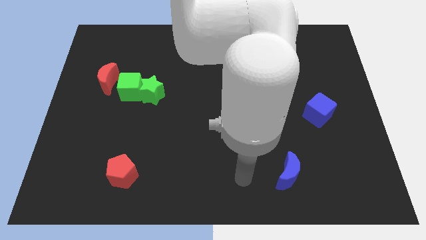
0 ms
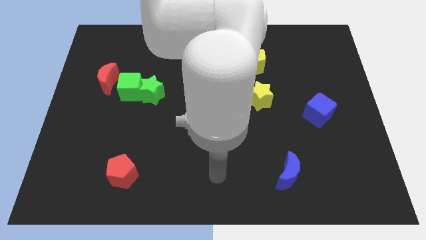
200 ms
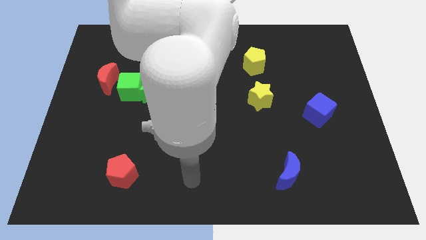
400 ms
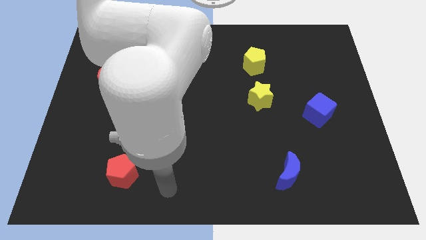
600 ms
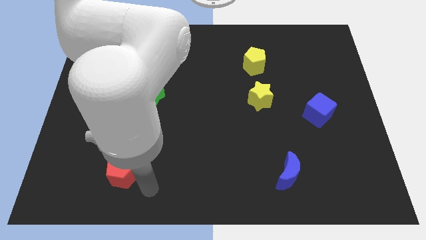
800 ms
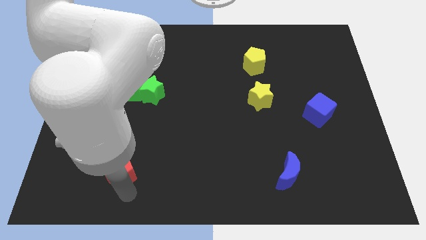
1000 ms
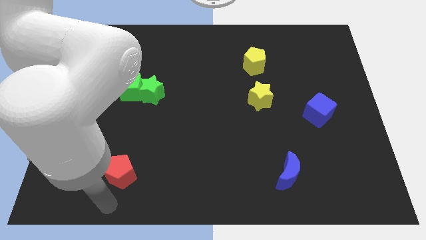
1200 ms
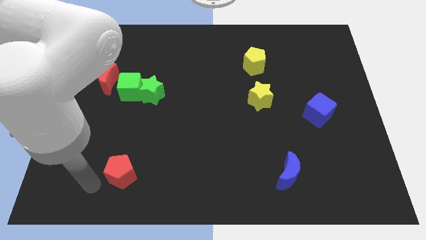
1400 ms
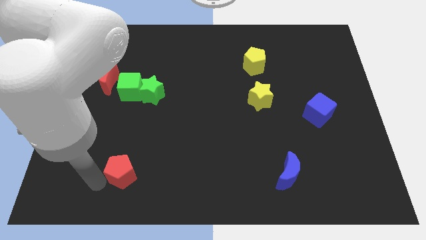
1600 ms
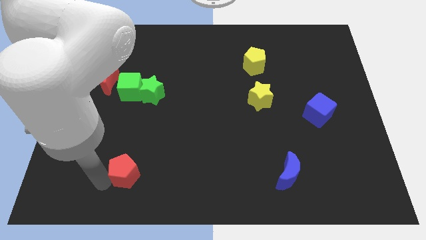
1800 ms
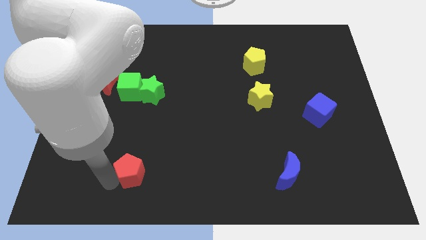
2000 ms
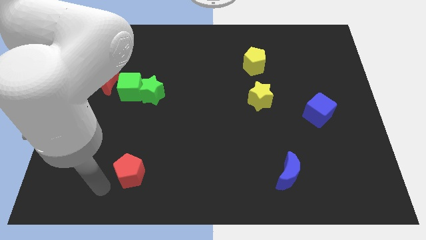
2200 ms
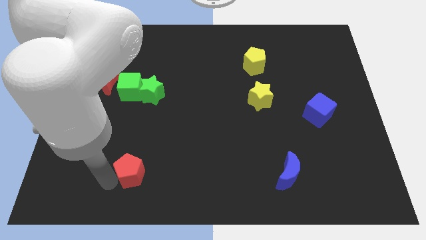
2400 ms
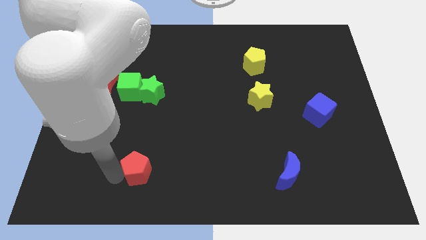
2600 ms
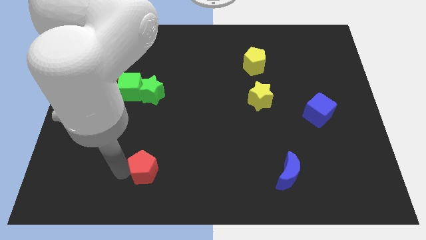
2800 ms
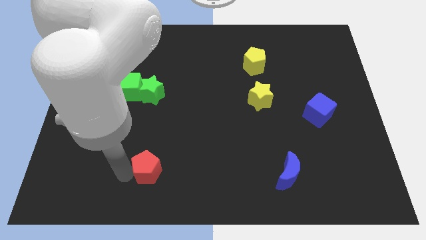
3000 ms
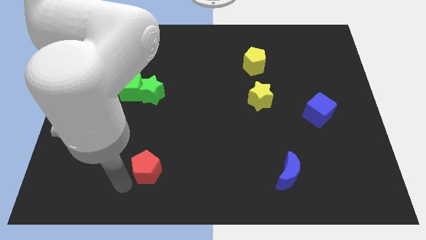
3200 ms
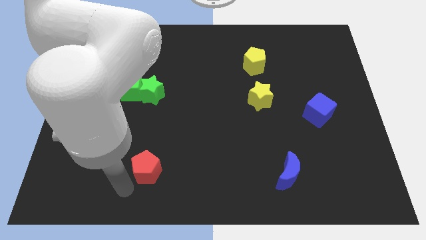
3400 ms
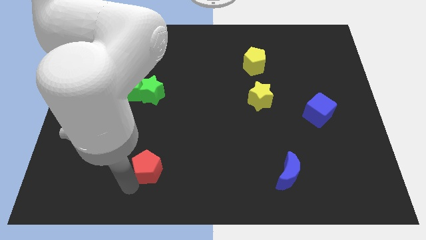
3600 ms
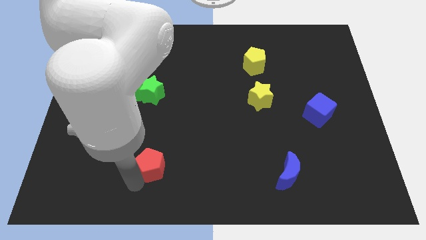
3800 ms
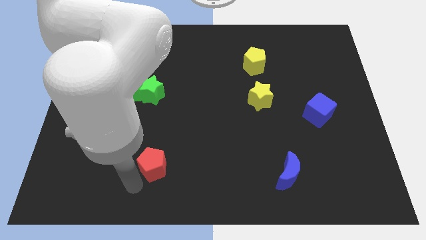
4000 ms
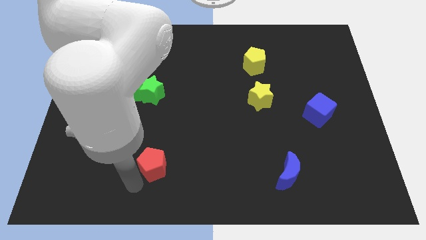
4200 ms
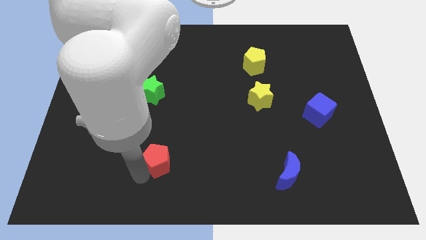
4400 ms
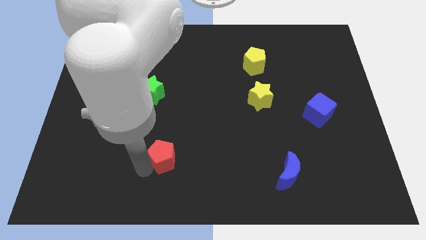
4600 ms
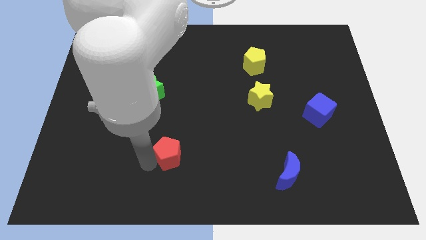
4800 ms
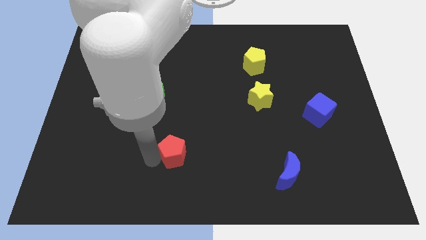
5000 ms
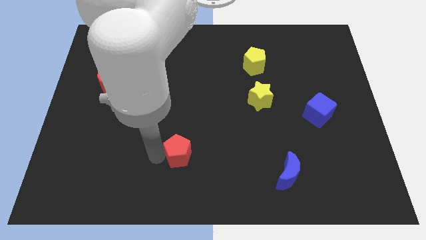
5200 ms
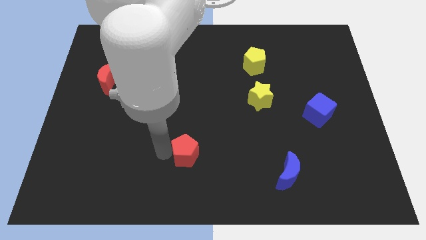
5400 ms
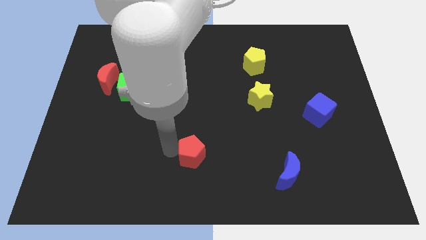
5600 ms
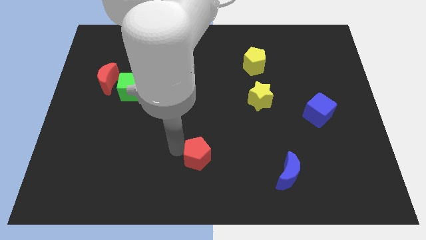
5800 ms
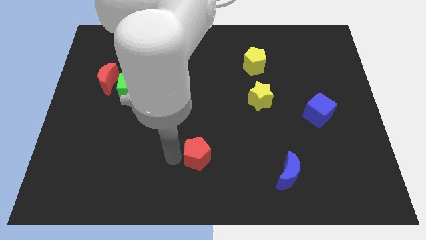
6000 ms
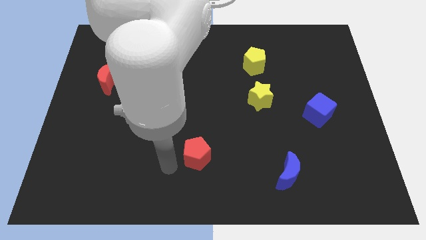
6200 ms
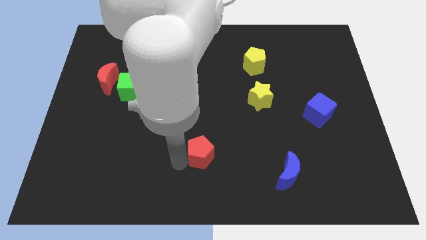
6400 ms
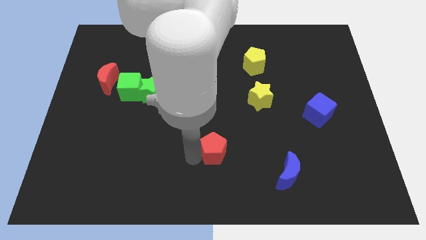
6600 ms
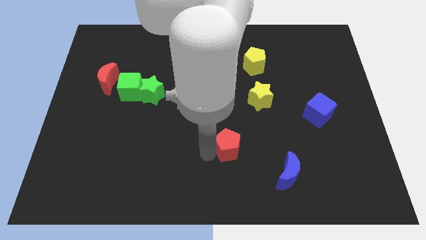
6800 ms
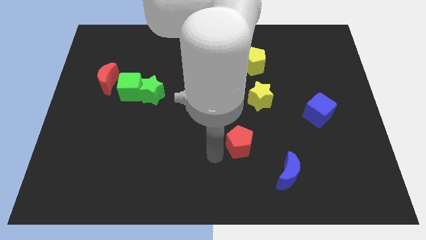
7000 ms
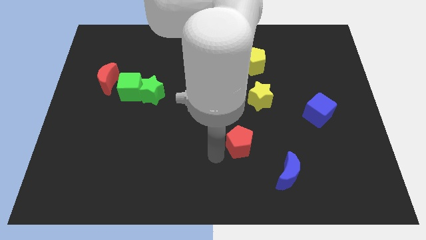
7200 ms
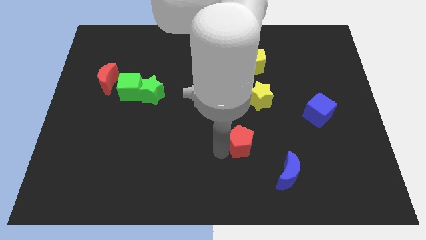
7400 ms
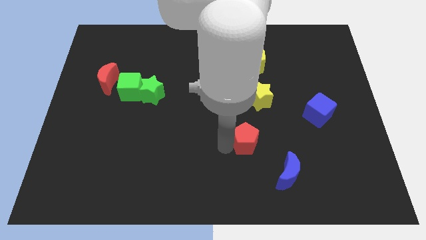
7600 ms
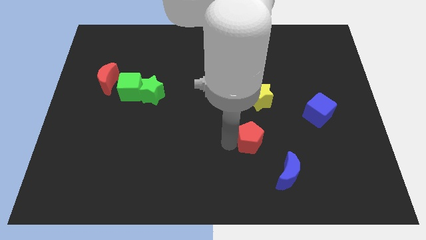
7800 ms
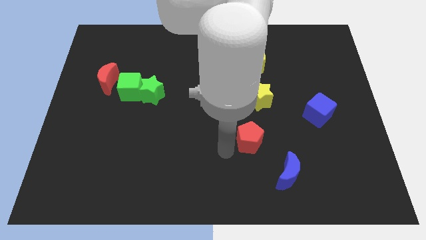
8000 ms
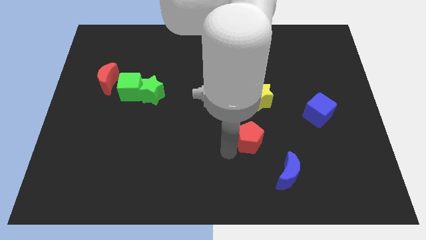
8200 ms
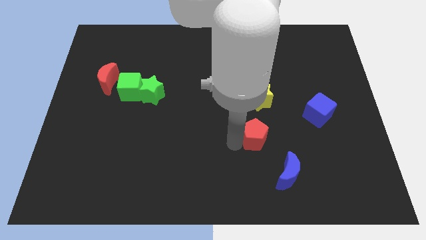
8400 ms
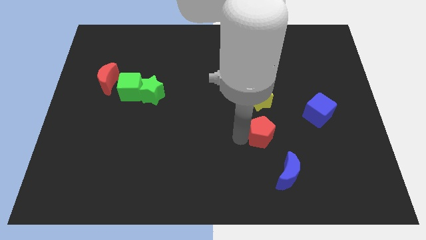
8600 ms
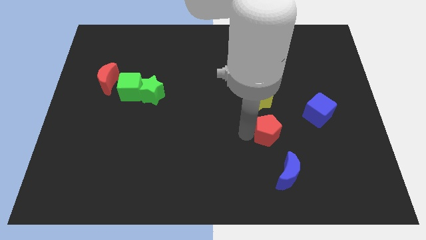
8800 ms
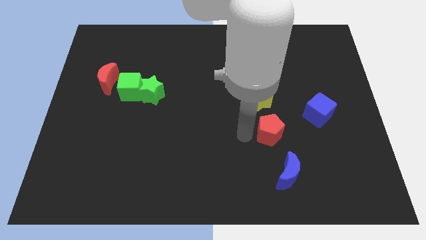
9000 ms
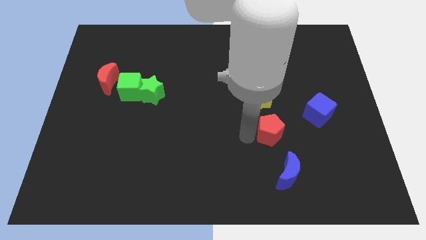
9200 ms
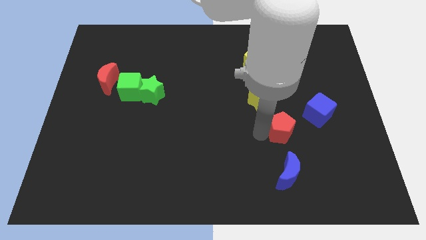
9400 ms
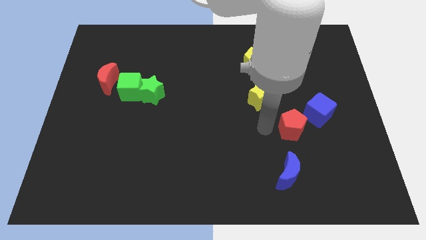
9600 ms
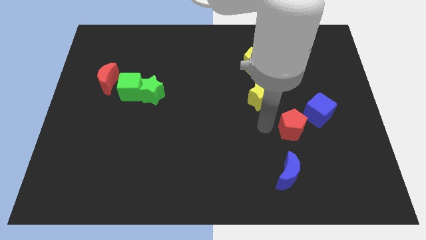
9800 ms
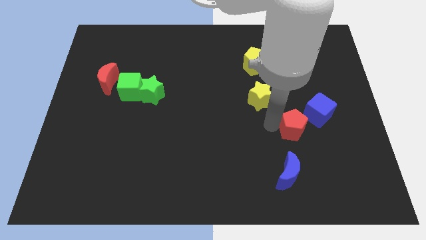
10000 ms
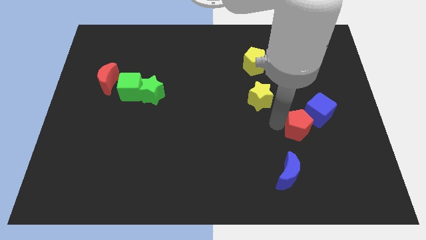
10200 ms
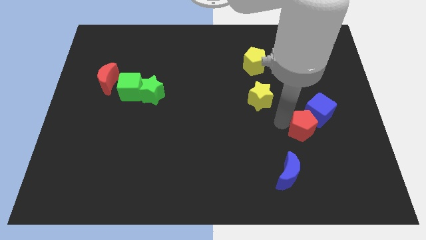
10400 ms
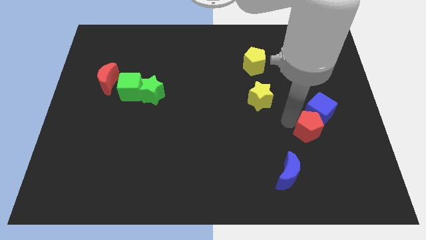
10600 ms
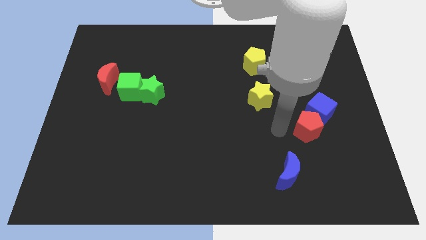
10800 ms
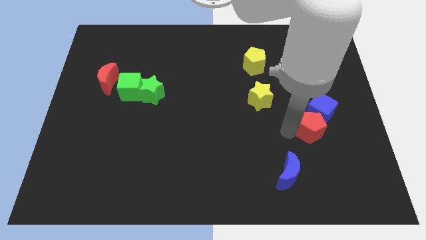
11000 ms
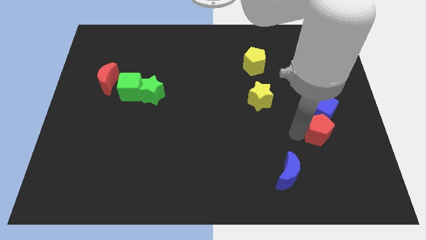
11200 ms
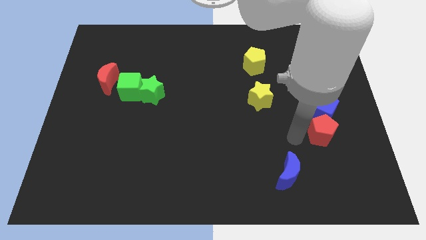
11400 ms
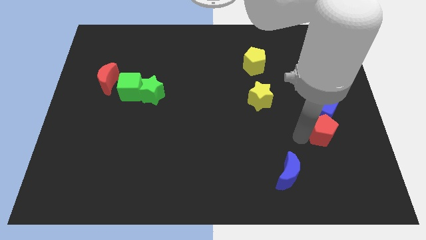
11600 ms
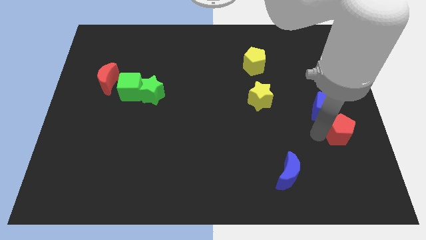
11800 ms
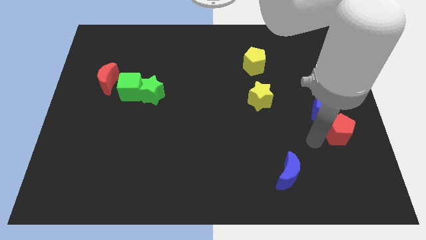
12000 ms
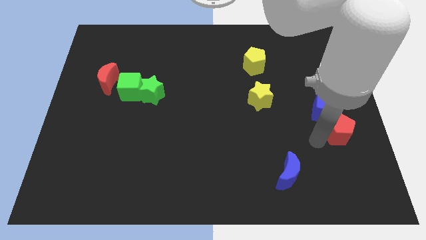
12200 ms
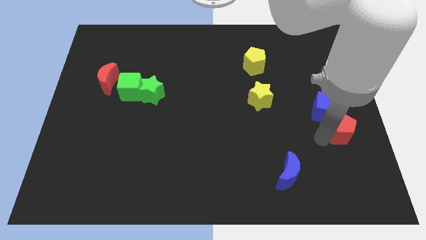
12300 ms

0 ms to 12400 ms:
push the red pentagon to the right side of the board
